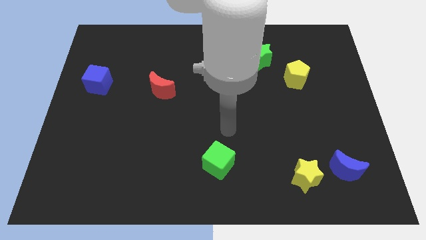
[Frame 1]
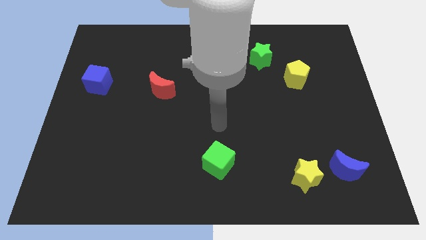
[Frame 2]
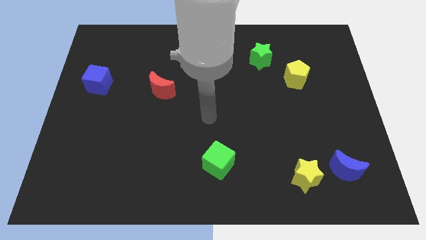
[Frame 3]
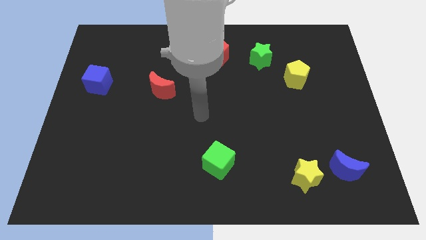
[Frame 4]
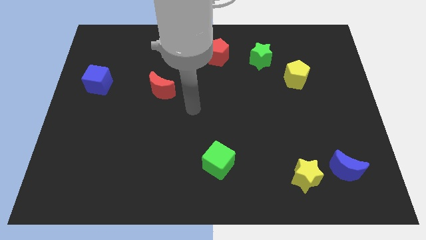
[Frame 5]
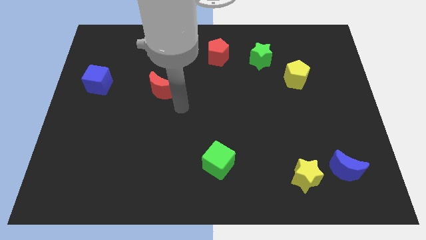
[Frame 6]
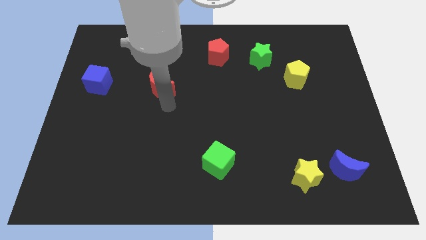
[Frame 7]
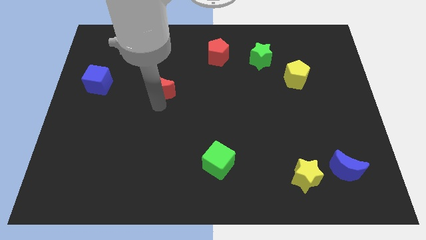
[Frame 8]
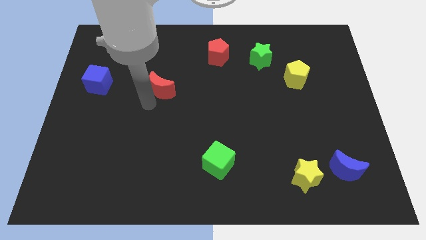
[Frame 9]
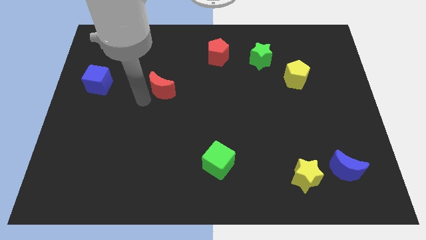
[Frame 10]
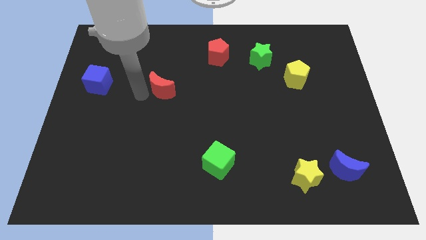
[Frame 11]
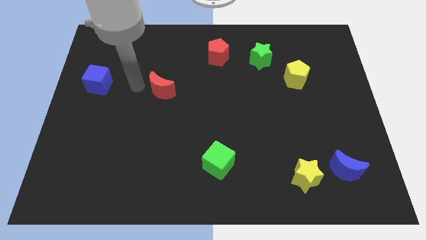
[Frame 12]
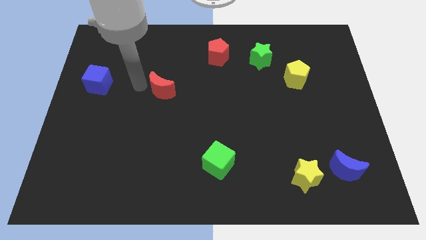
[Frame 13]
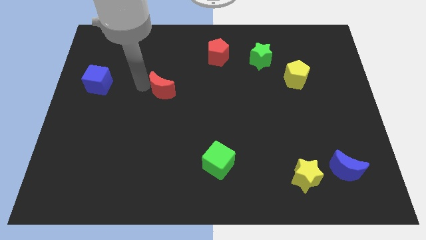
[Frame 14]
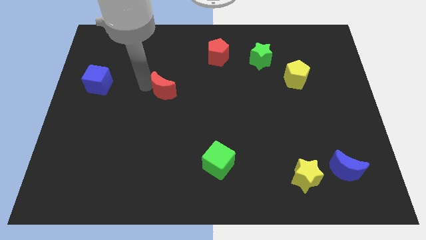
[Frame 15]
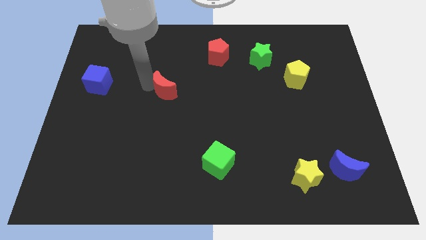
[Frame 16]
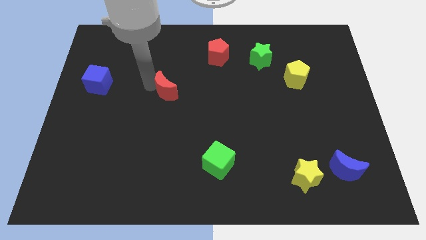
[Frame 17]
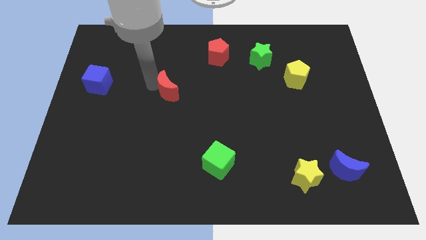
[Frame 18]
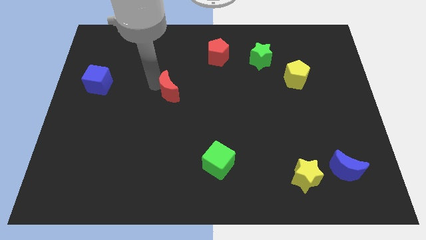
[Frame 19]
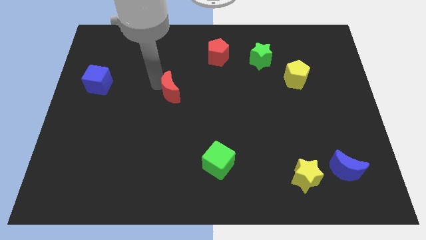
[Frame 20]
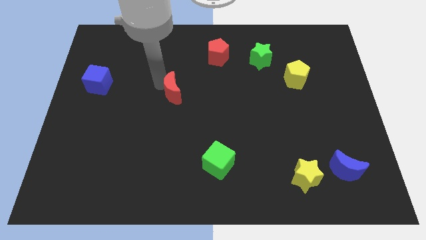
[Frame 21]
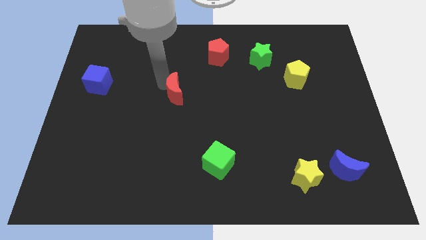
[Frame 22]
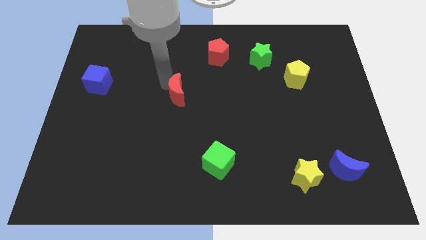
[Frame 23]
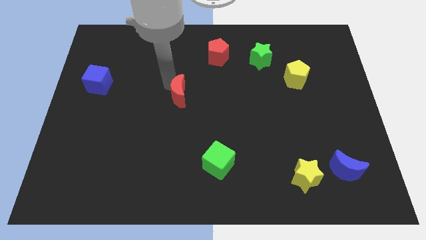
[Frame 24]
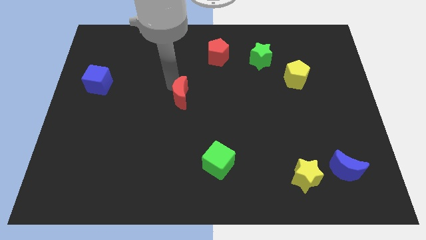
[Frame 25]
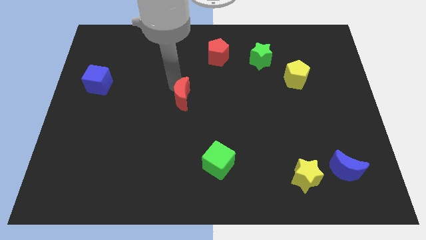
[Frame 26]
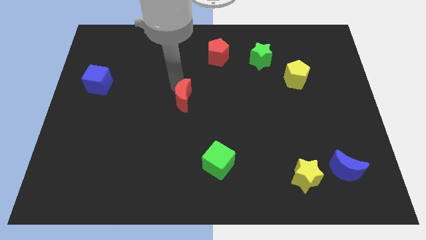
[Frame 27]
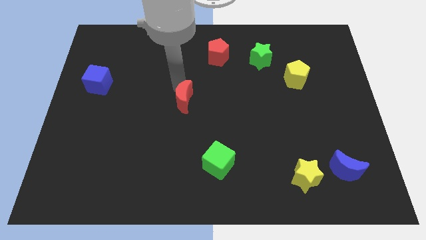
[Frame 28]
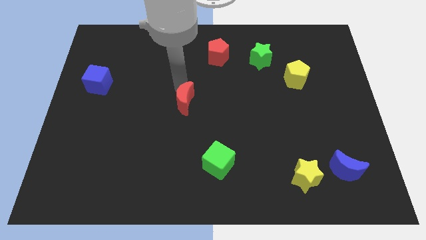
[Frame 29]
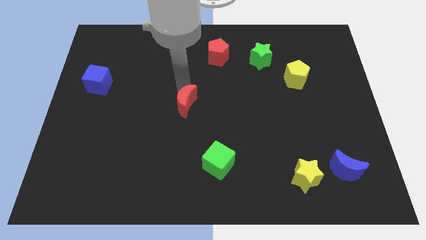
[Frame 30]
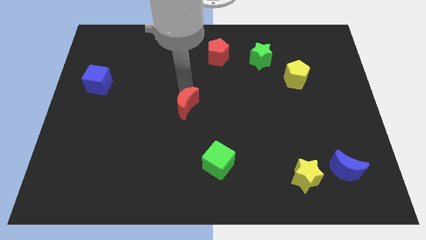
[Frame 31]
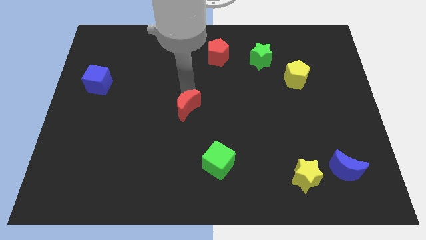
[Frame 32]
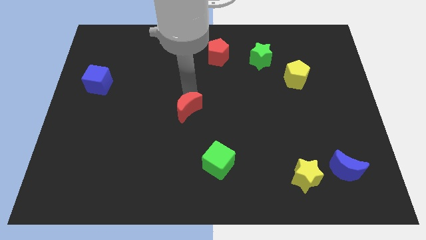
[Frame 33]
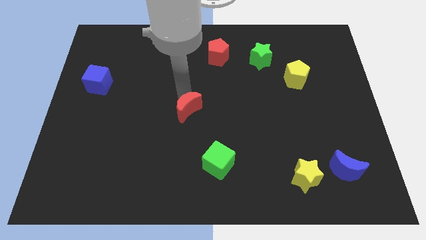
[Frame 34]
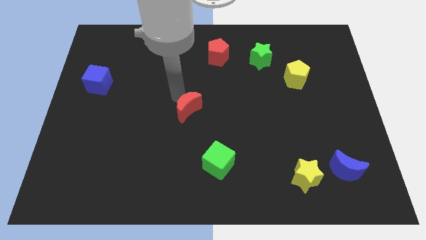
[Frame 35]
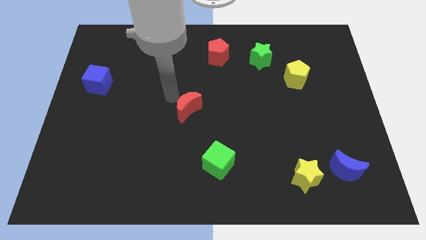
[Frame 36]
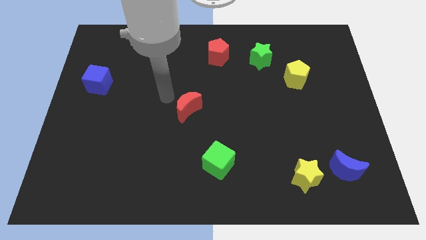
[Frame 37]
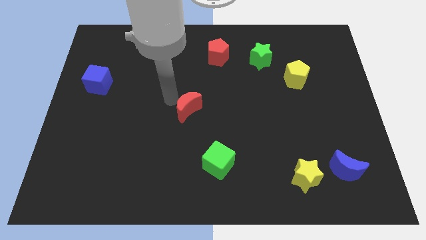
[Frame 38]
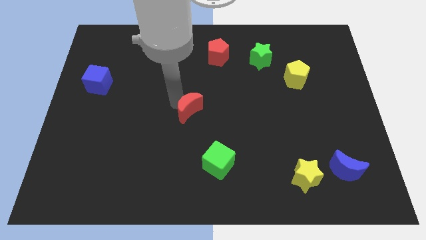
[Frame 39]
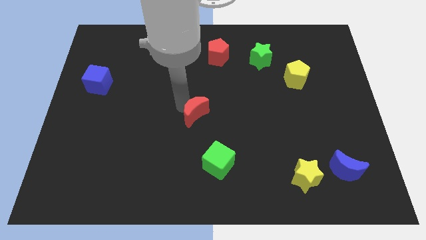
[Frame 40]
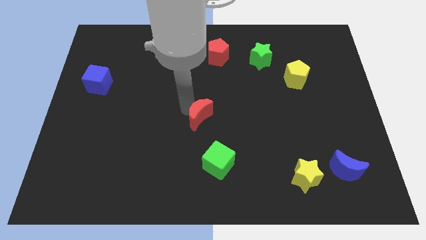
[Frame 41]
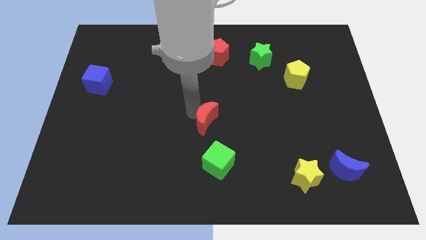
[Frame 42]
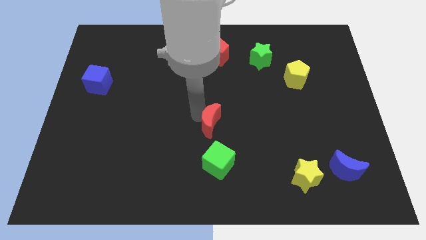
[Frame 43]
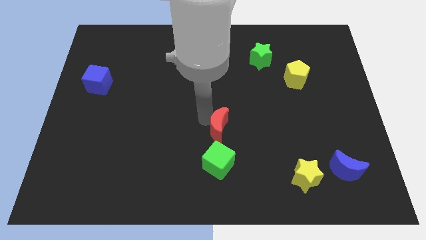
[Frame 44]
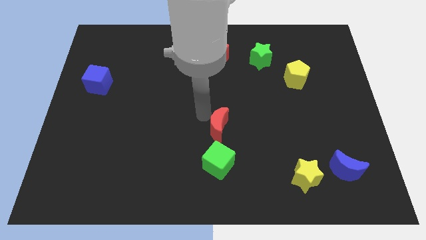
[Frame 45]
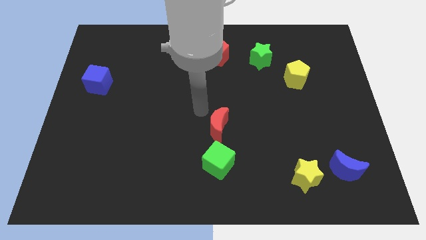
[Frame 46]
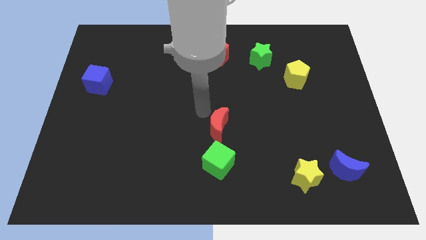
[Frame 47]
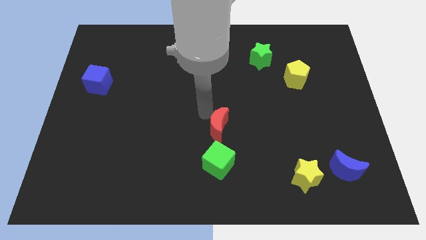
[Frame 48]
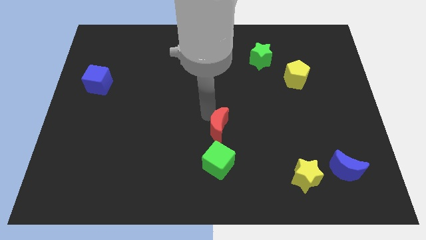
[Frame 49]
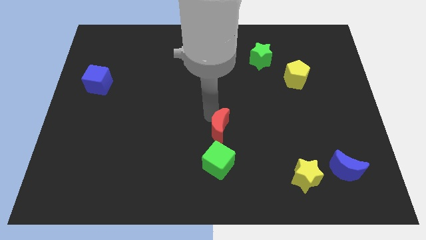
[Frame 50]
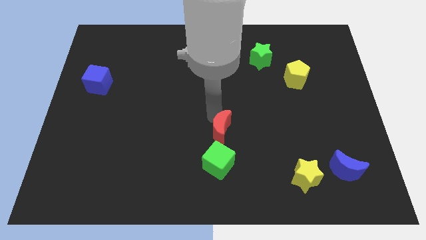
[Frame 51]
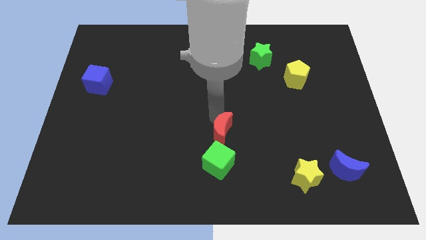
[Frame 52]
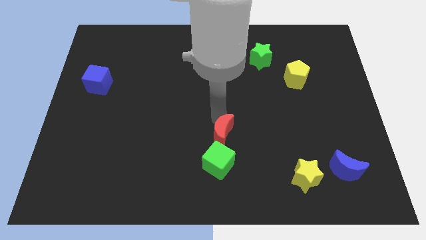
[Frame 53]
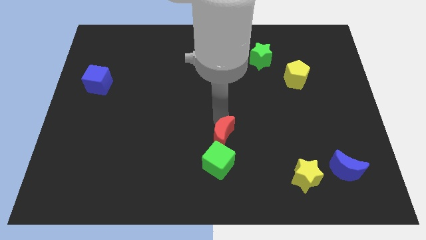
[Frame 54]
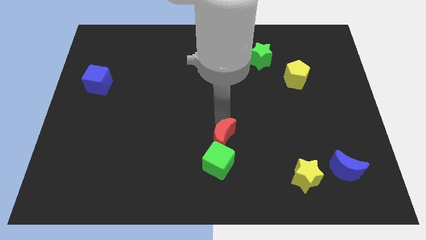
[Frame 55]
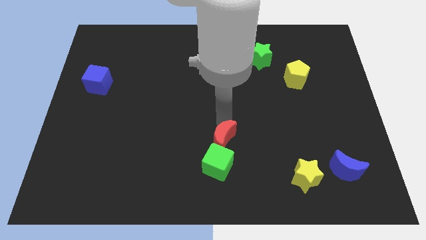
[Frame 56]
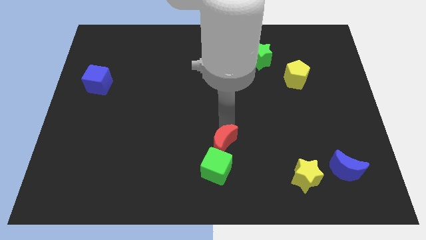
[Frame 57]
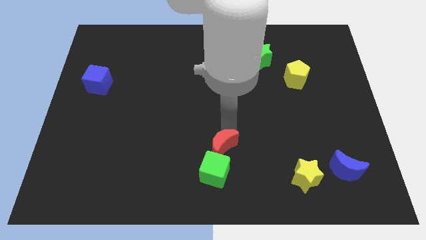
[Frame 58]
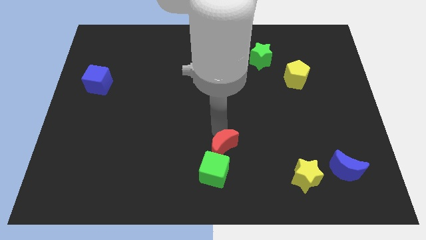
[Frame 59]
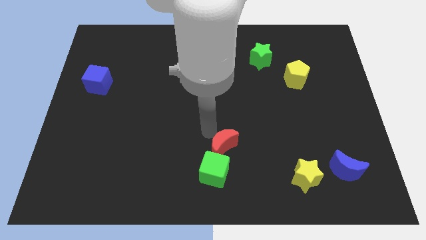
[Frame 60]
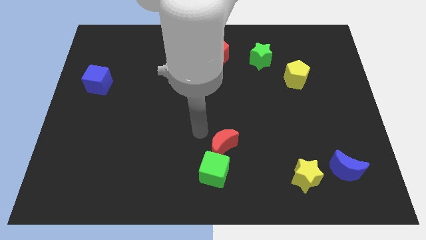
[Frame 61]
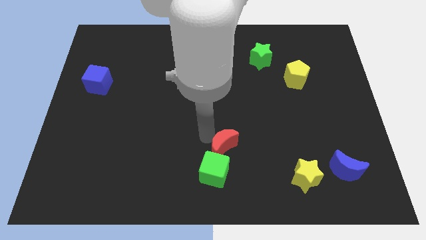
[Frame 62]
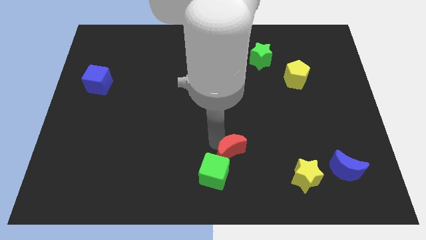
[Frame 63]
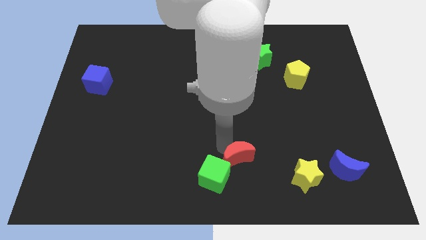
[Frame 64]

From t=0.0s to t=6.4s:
put the red moon to the right side of the green cube

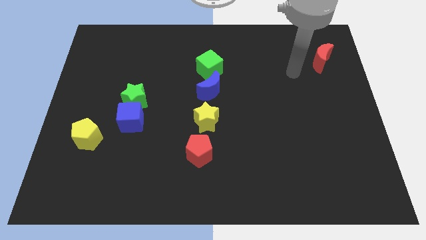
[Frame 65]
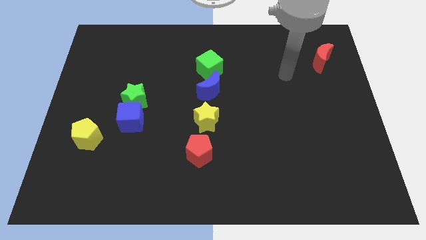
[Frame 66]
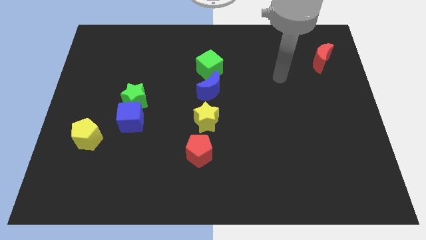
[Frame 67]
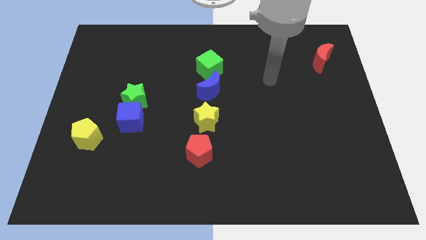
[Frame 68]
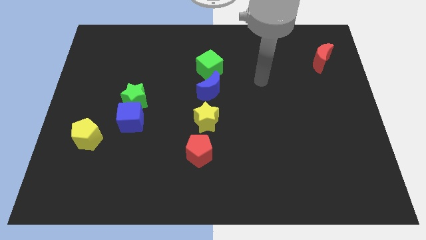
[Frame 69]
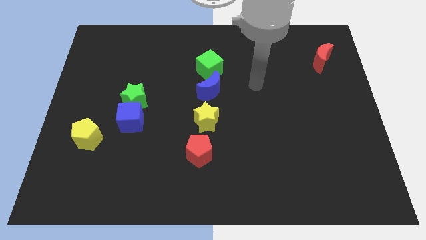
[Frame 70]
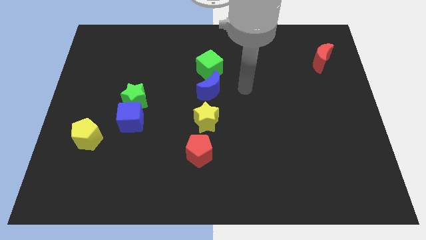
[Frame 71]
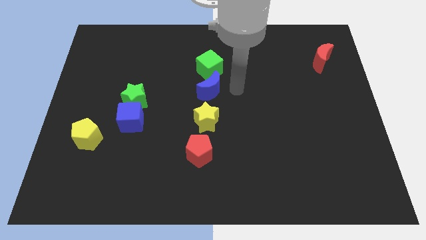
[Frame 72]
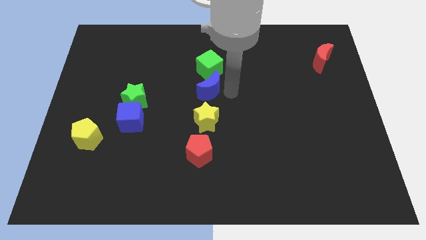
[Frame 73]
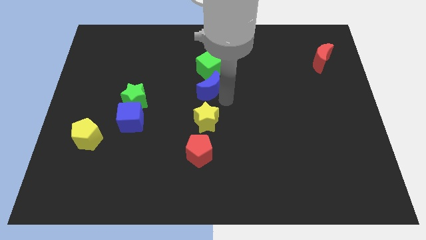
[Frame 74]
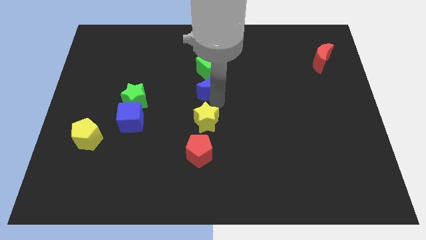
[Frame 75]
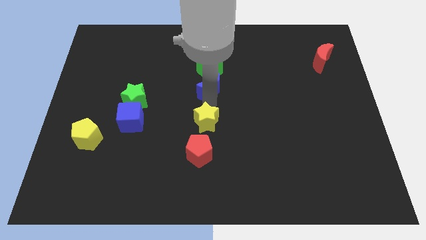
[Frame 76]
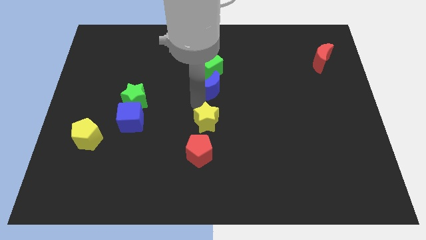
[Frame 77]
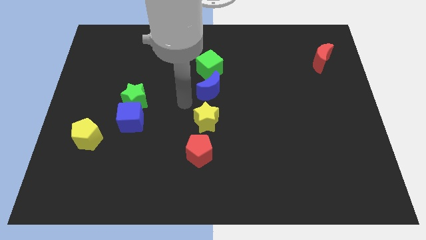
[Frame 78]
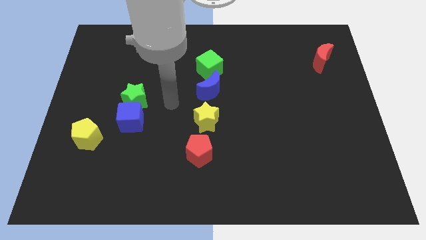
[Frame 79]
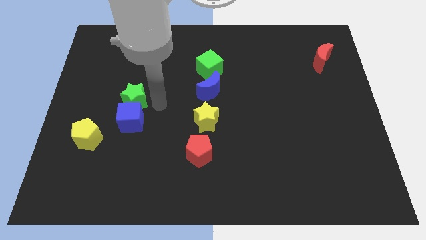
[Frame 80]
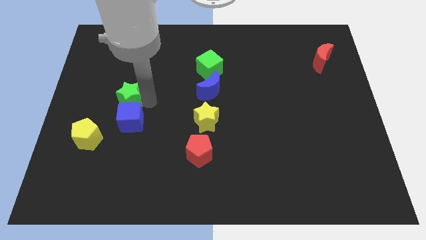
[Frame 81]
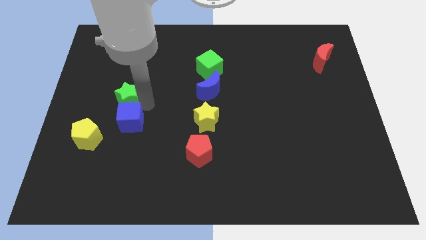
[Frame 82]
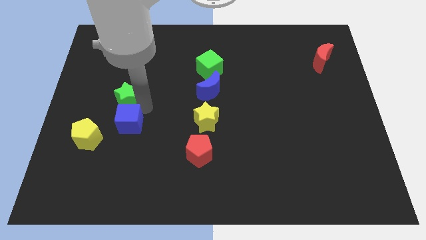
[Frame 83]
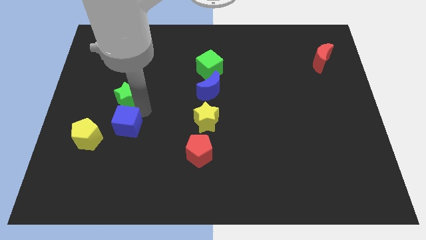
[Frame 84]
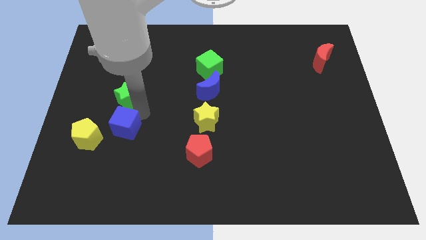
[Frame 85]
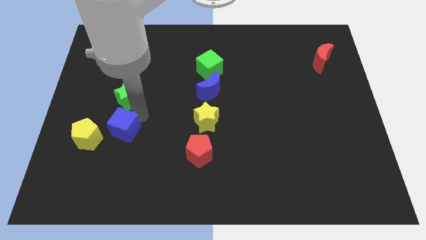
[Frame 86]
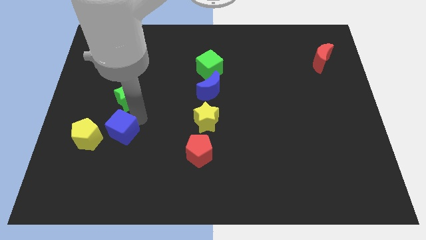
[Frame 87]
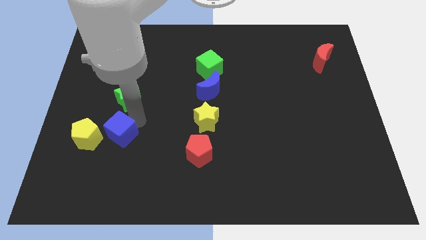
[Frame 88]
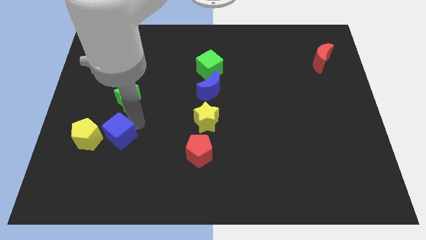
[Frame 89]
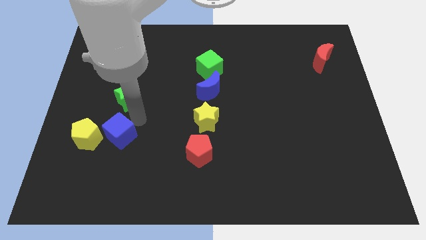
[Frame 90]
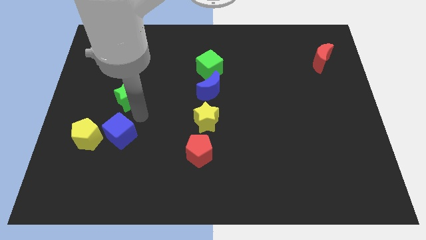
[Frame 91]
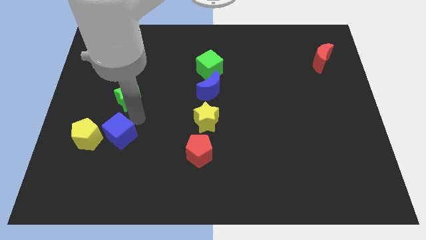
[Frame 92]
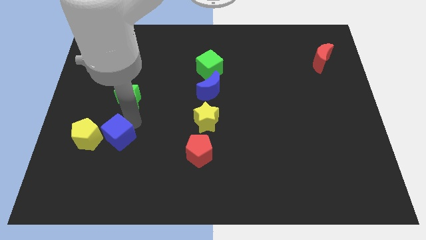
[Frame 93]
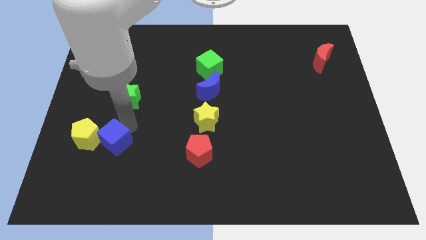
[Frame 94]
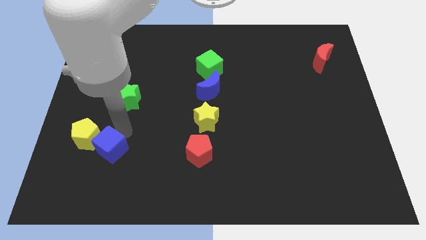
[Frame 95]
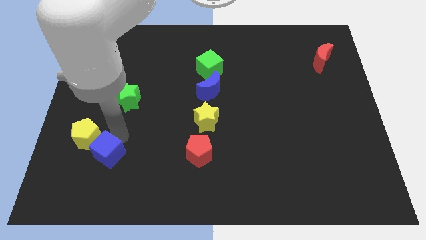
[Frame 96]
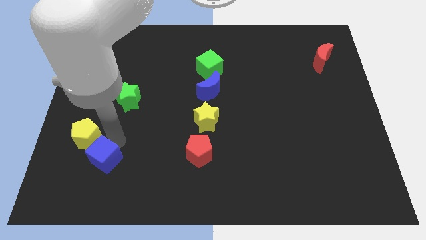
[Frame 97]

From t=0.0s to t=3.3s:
slide the blue cube below the yellow pentagon
